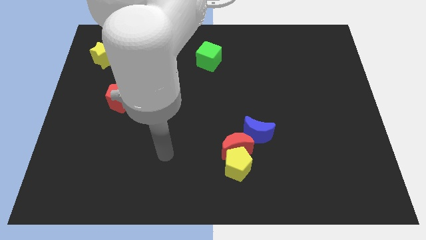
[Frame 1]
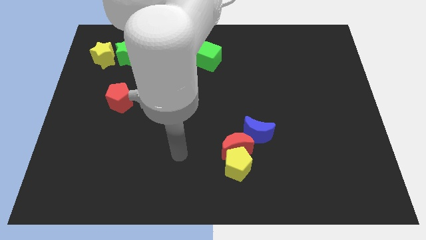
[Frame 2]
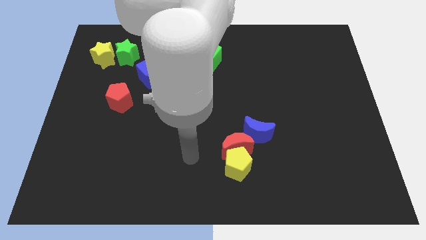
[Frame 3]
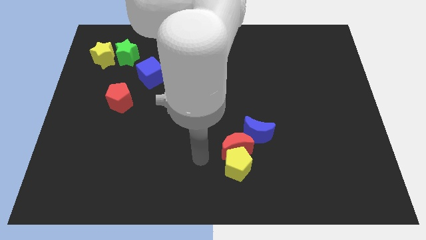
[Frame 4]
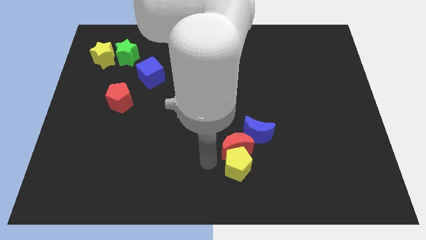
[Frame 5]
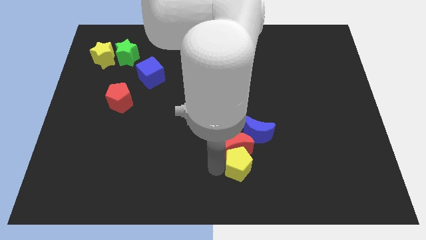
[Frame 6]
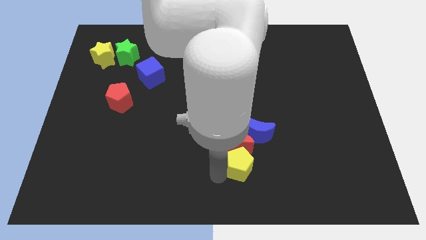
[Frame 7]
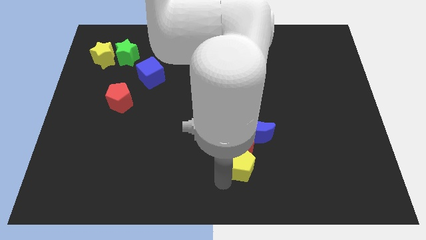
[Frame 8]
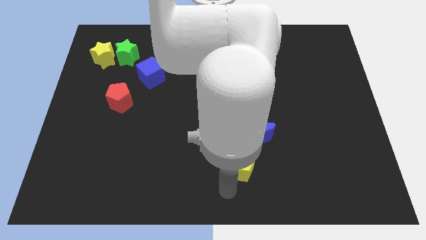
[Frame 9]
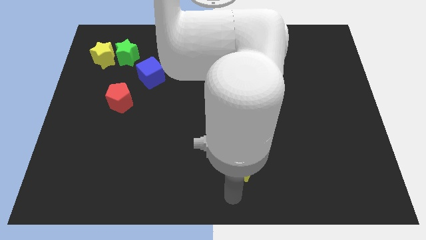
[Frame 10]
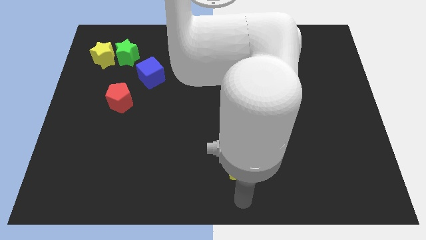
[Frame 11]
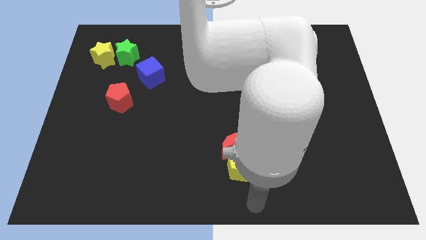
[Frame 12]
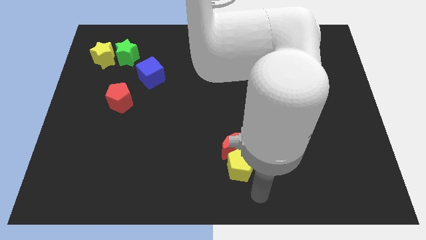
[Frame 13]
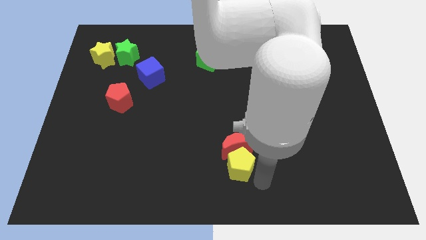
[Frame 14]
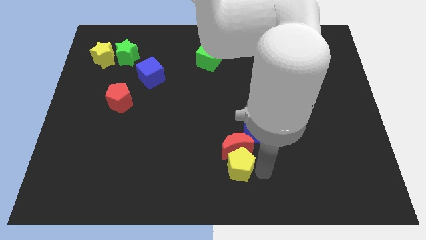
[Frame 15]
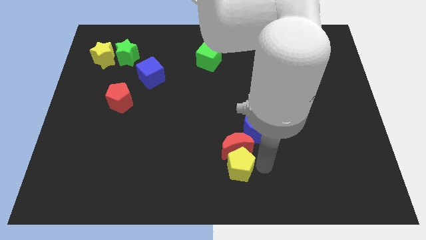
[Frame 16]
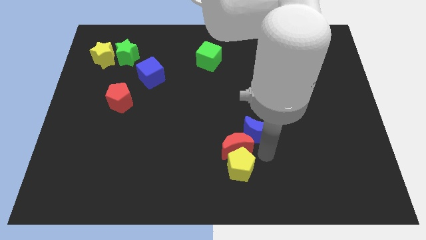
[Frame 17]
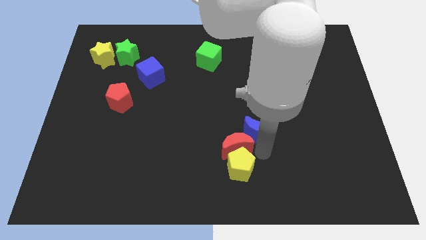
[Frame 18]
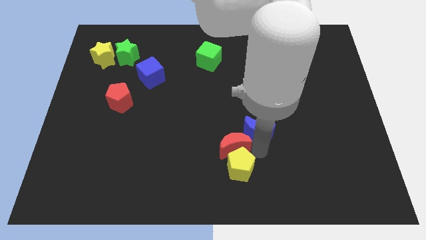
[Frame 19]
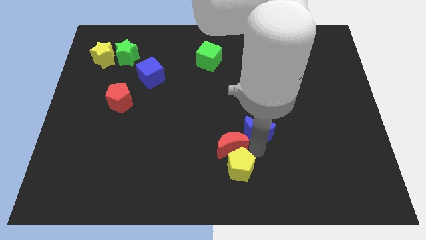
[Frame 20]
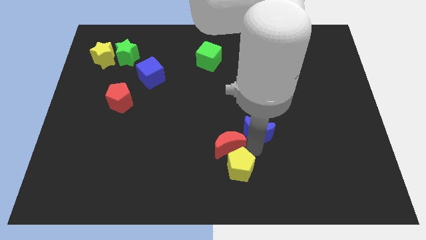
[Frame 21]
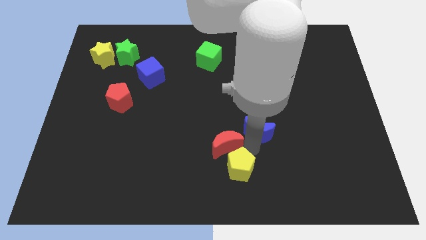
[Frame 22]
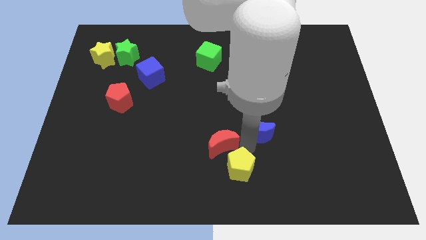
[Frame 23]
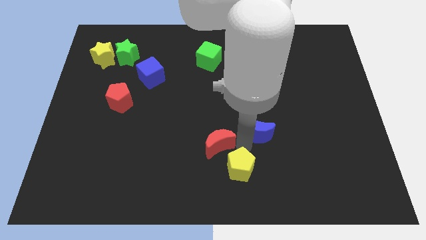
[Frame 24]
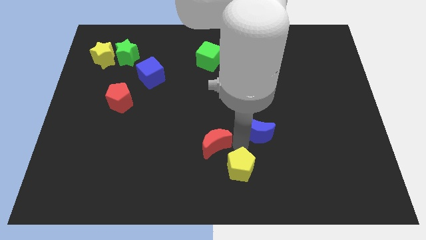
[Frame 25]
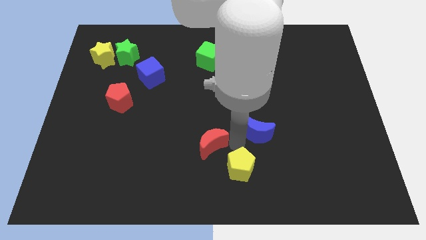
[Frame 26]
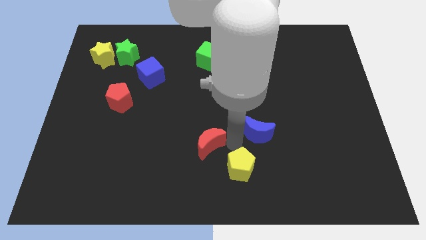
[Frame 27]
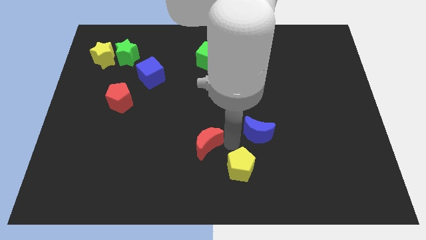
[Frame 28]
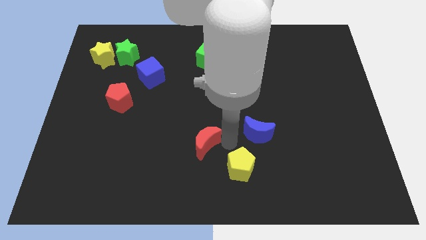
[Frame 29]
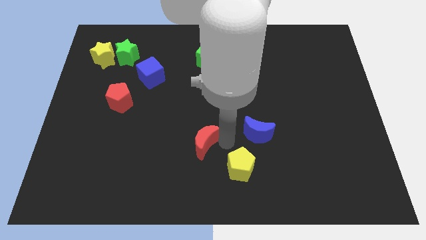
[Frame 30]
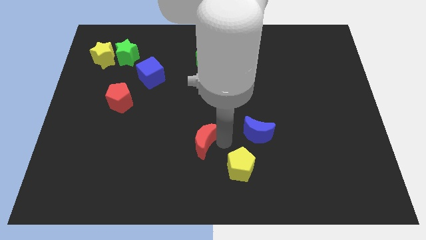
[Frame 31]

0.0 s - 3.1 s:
pull the red moon apart from the yellow pentagon and blue moon

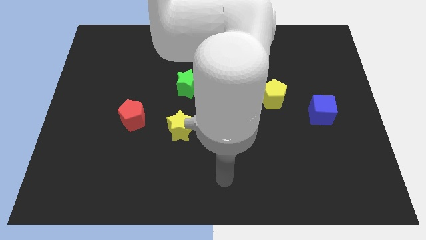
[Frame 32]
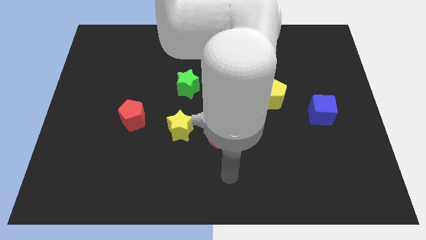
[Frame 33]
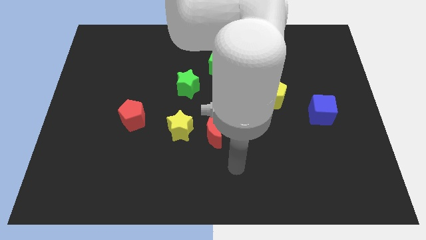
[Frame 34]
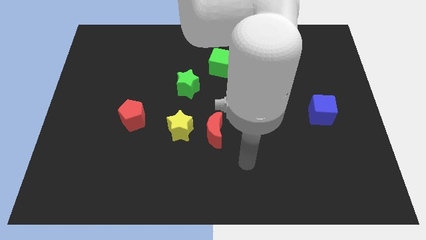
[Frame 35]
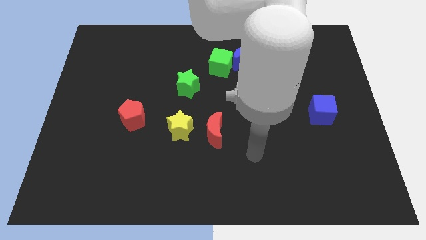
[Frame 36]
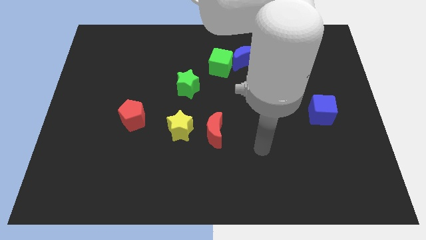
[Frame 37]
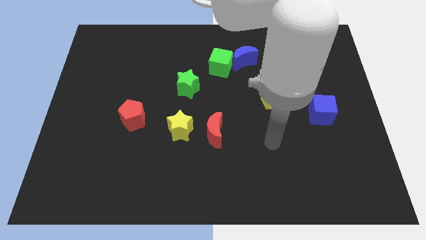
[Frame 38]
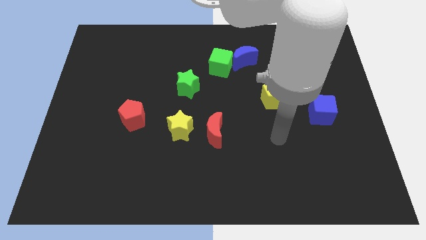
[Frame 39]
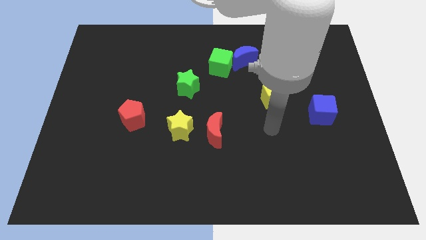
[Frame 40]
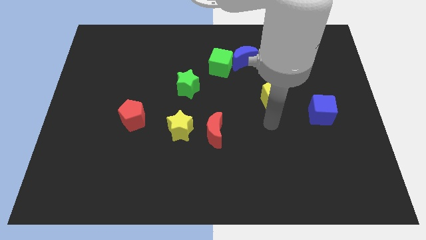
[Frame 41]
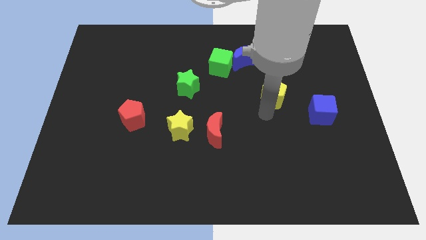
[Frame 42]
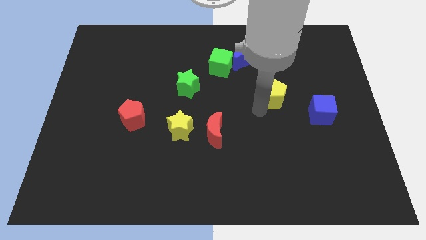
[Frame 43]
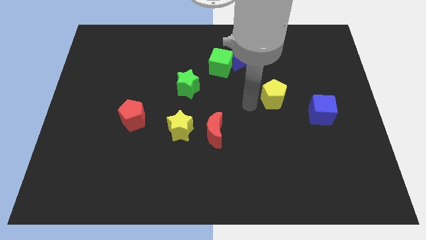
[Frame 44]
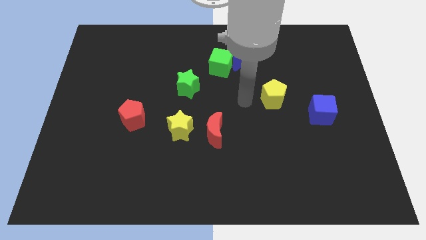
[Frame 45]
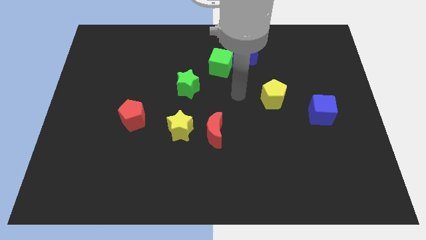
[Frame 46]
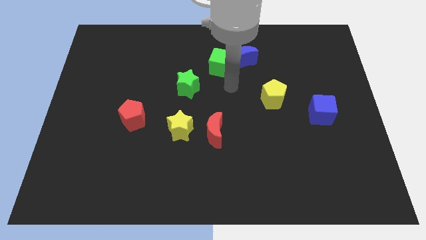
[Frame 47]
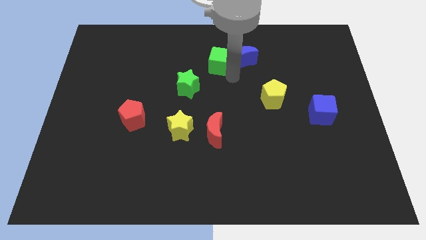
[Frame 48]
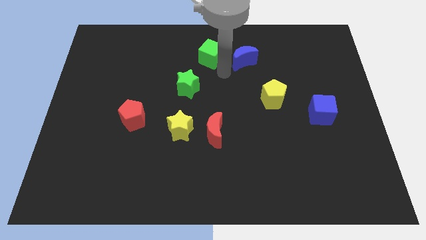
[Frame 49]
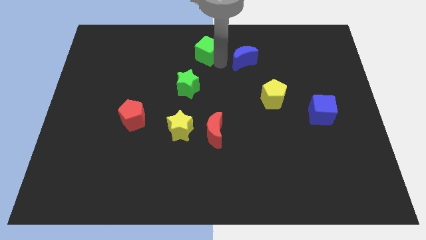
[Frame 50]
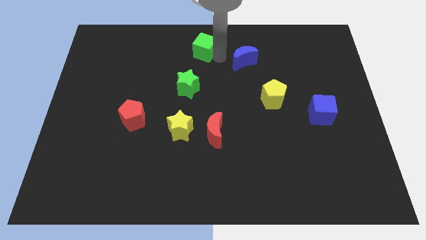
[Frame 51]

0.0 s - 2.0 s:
move the blue moon away from the green cube

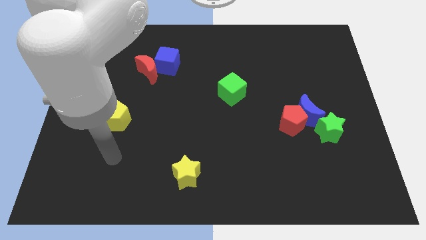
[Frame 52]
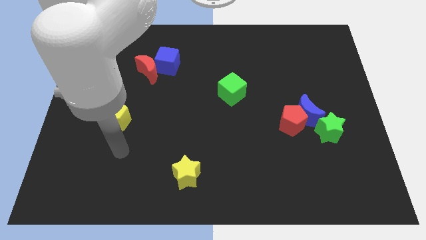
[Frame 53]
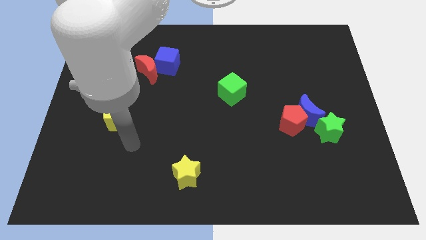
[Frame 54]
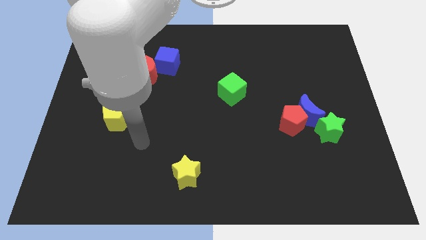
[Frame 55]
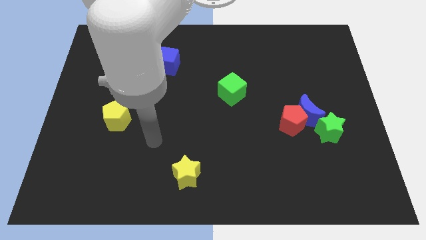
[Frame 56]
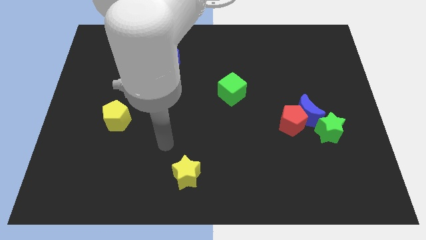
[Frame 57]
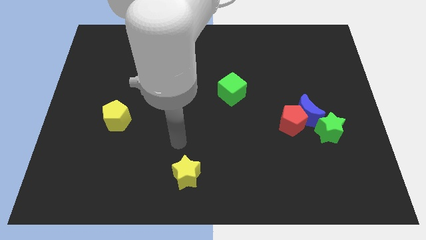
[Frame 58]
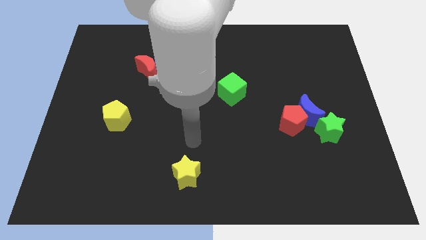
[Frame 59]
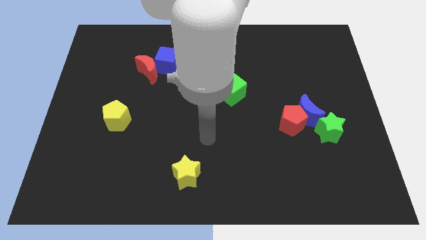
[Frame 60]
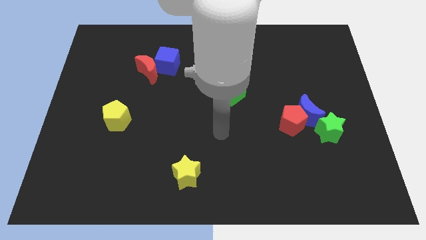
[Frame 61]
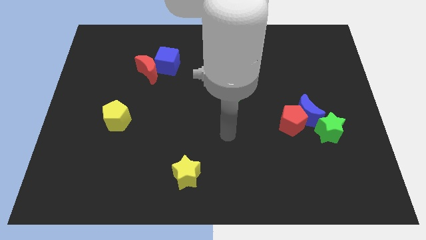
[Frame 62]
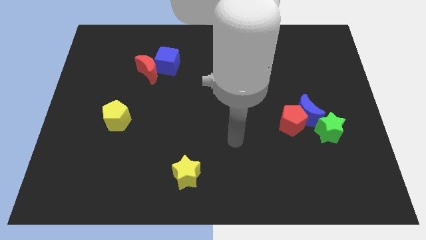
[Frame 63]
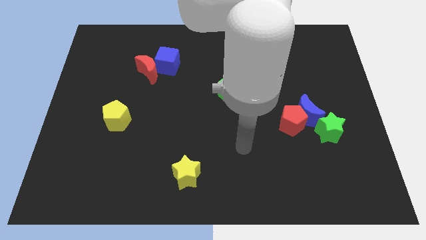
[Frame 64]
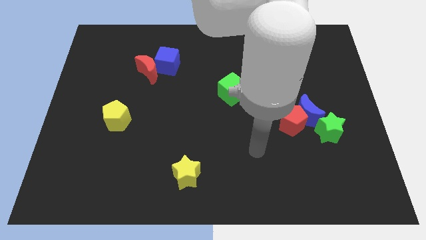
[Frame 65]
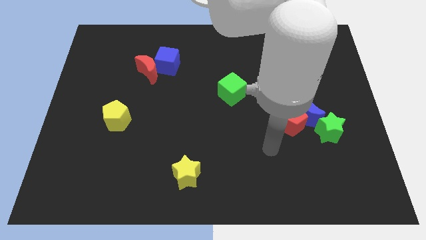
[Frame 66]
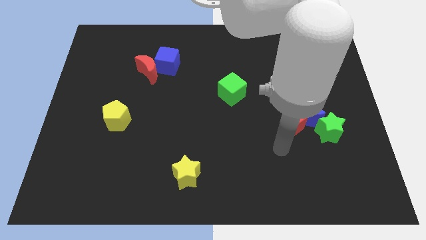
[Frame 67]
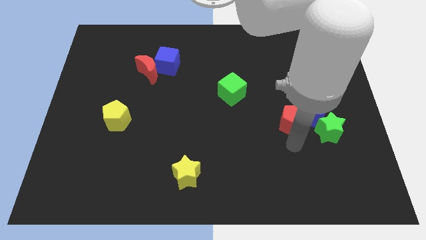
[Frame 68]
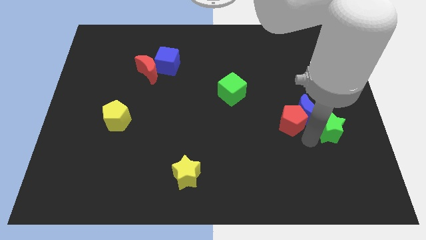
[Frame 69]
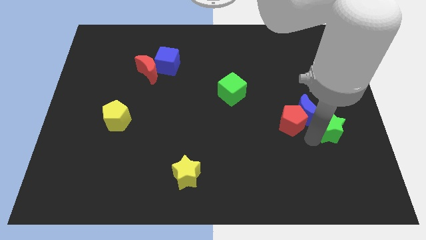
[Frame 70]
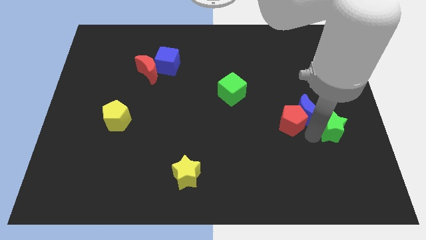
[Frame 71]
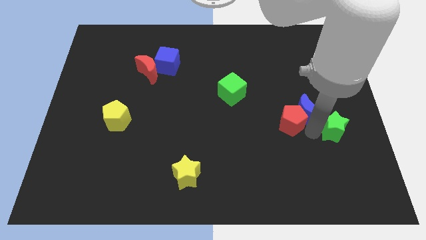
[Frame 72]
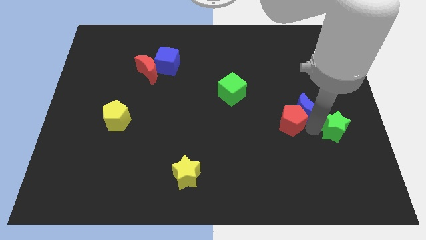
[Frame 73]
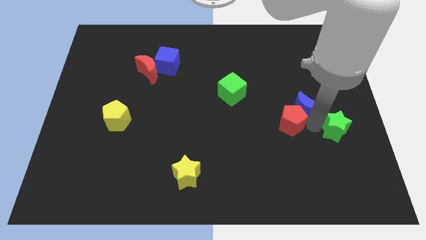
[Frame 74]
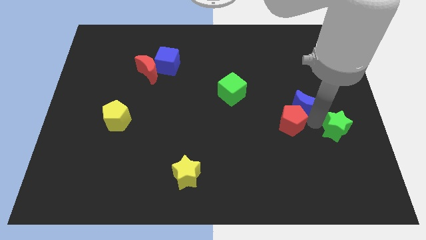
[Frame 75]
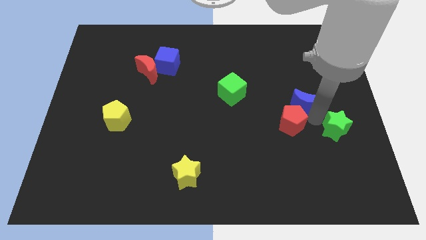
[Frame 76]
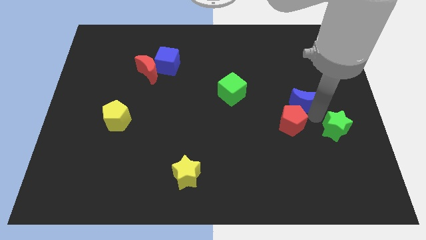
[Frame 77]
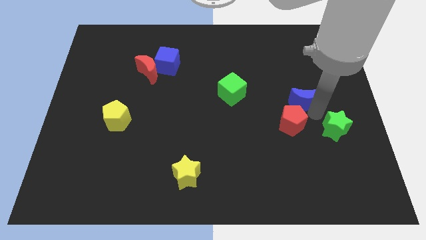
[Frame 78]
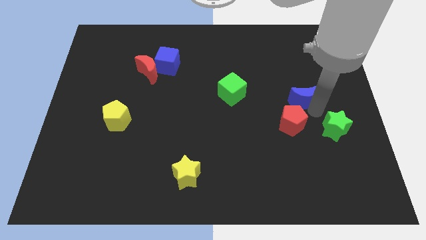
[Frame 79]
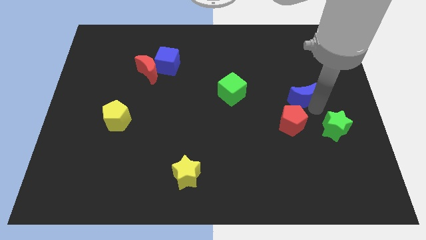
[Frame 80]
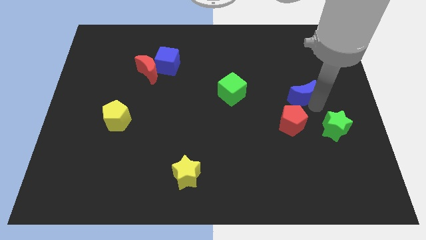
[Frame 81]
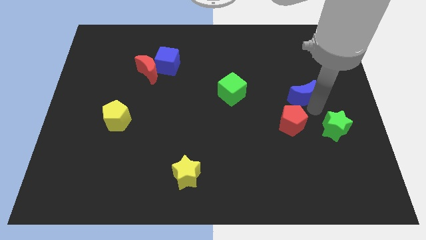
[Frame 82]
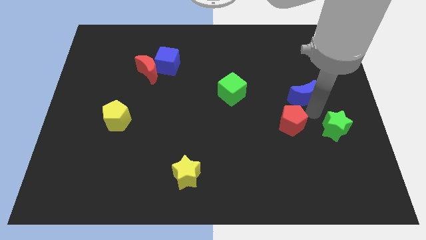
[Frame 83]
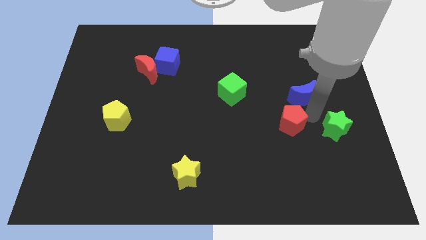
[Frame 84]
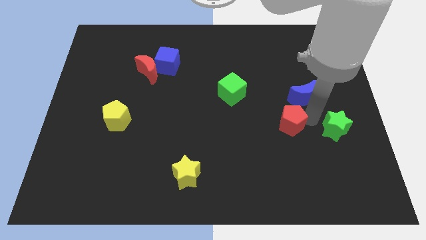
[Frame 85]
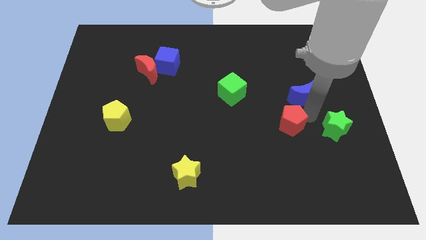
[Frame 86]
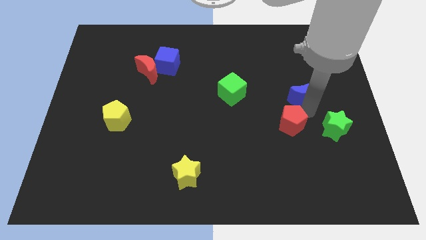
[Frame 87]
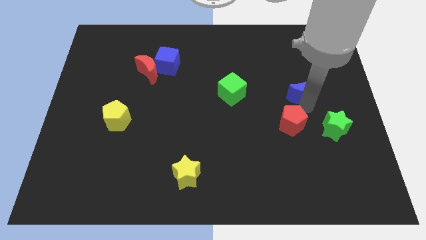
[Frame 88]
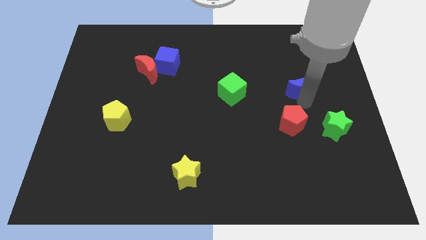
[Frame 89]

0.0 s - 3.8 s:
pull the blue moon apart from the red pentagon and green star

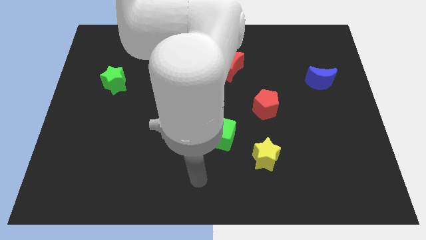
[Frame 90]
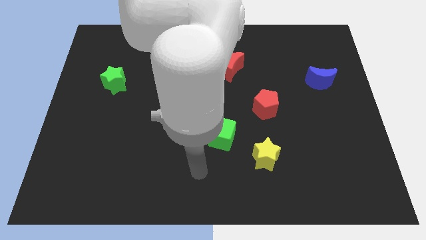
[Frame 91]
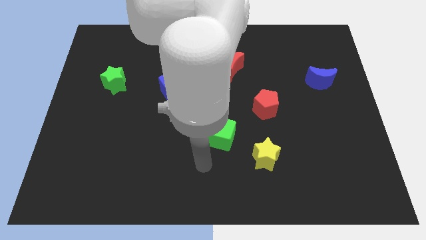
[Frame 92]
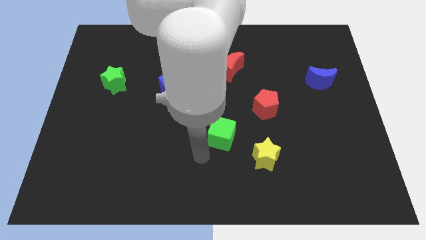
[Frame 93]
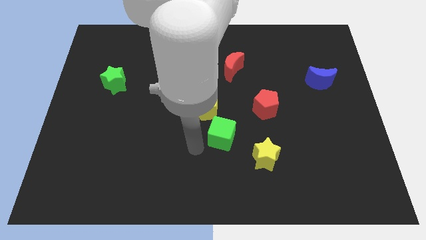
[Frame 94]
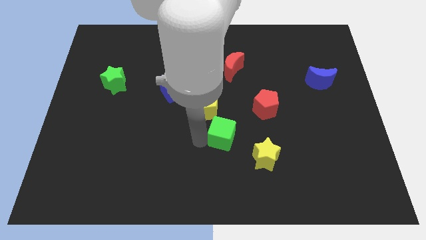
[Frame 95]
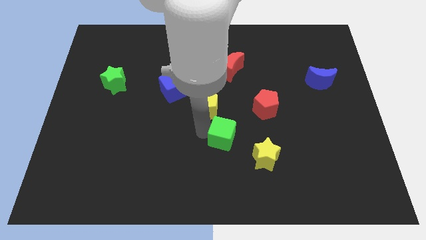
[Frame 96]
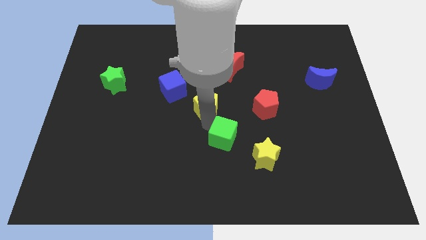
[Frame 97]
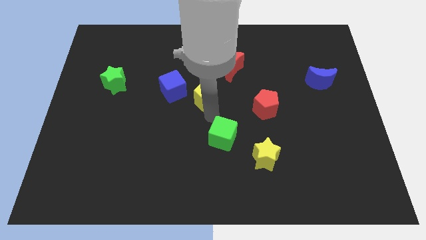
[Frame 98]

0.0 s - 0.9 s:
pull the green cube apart from the yellow pentagon
